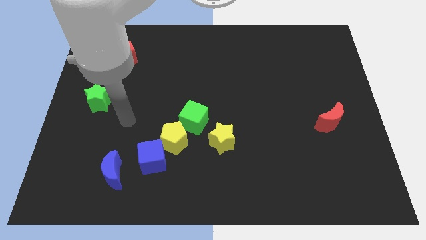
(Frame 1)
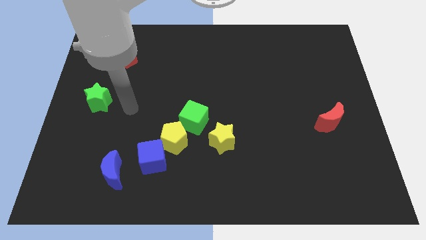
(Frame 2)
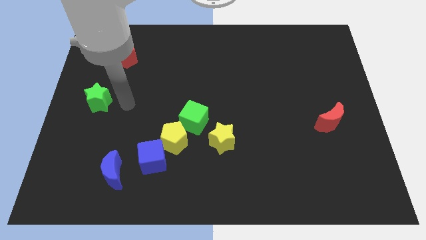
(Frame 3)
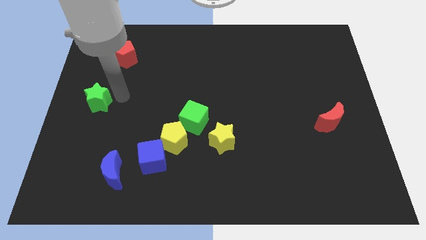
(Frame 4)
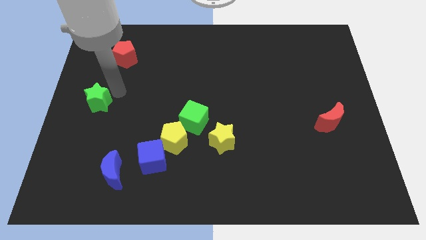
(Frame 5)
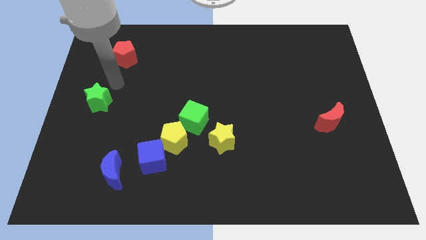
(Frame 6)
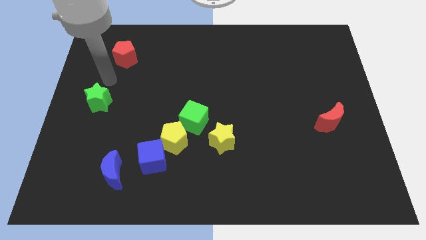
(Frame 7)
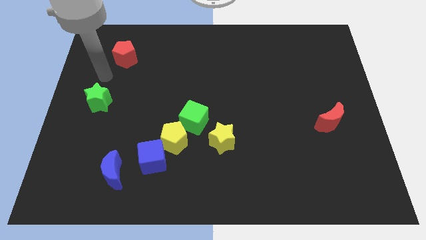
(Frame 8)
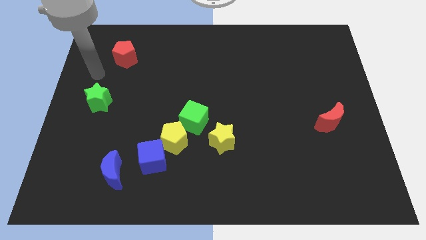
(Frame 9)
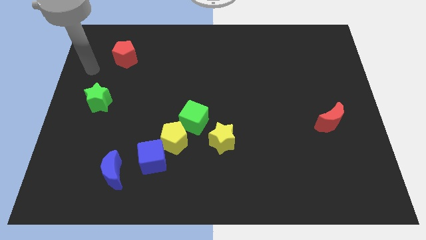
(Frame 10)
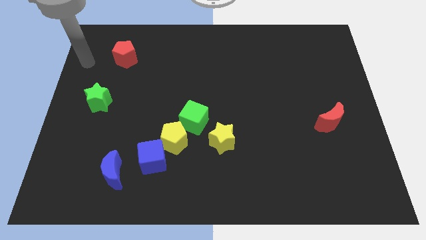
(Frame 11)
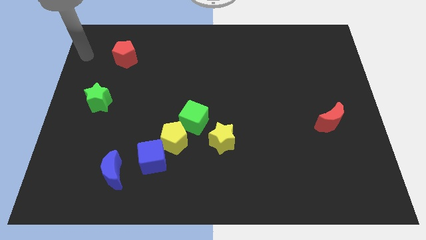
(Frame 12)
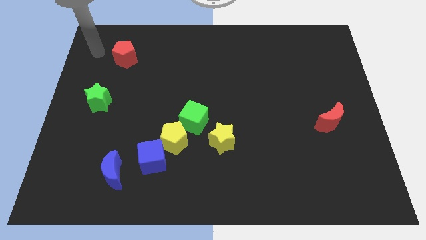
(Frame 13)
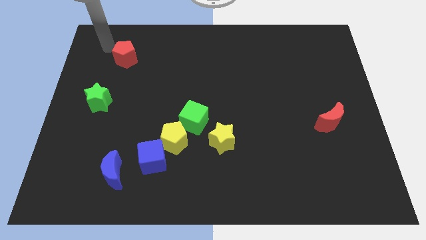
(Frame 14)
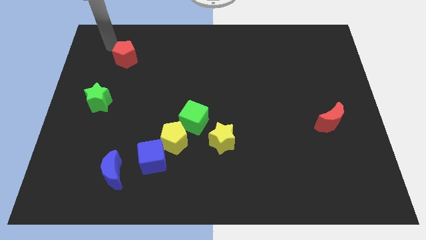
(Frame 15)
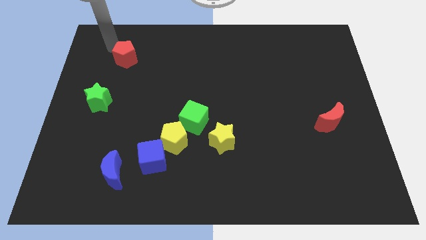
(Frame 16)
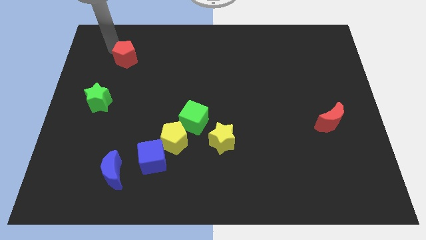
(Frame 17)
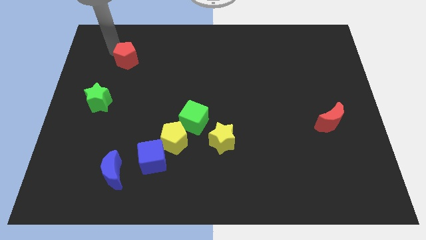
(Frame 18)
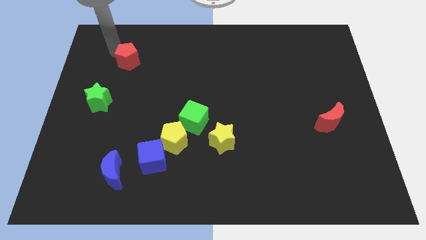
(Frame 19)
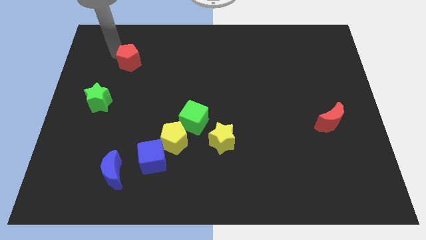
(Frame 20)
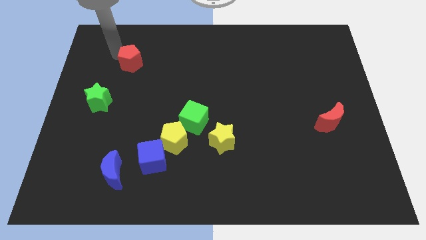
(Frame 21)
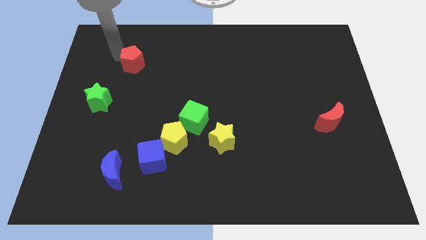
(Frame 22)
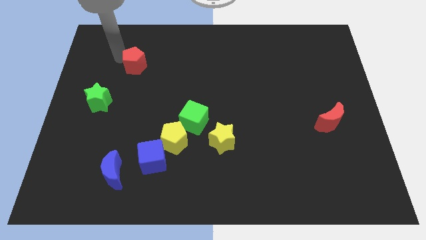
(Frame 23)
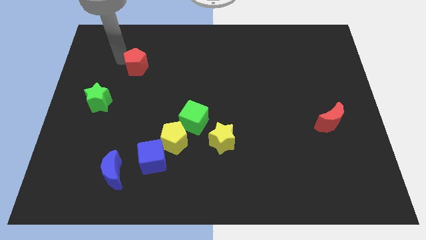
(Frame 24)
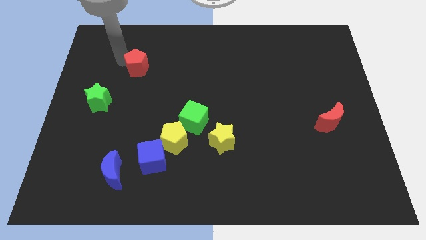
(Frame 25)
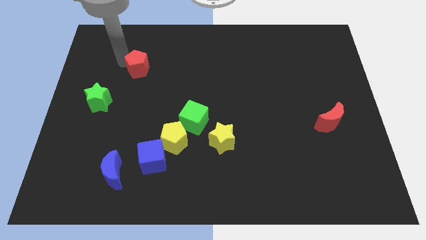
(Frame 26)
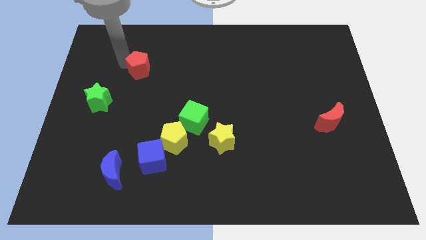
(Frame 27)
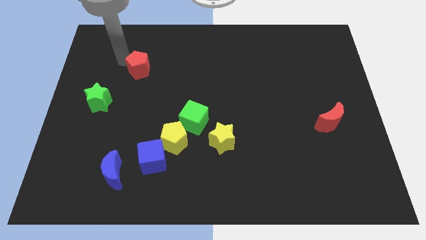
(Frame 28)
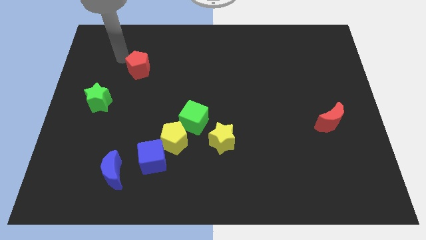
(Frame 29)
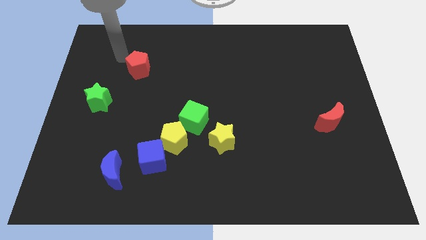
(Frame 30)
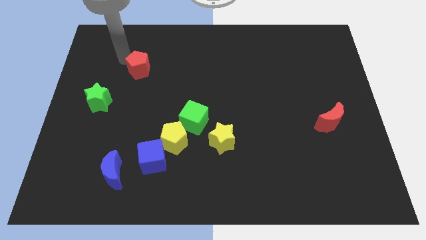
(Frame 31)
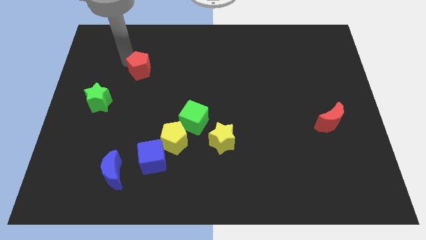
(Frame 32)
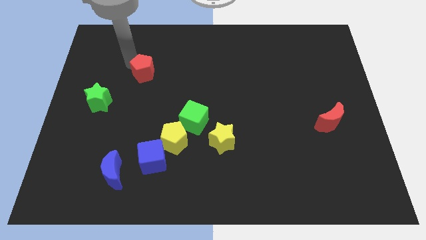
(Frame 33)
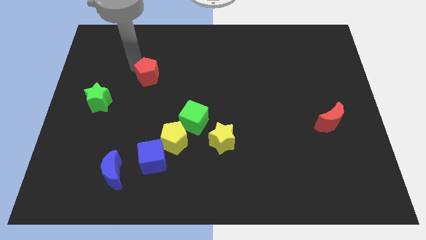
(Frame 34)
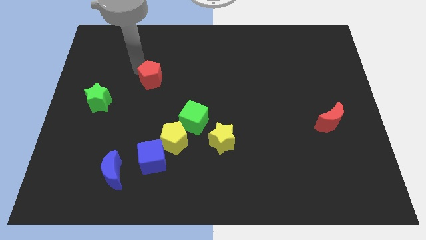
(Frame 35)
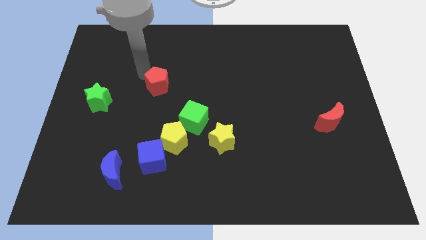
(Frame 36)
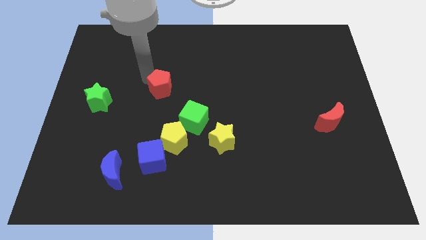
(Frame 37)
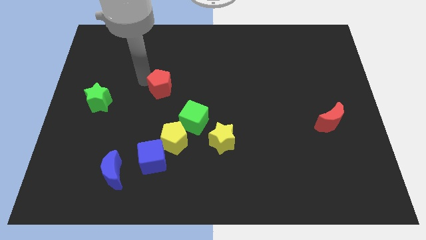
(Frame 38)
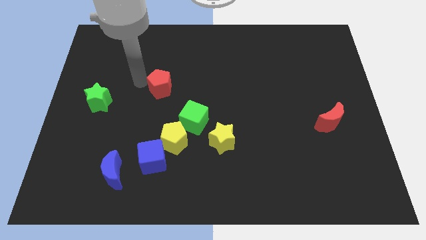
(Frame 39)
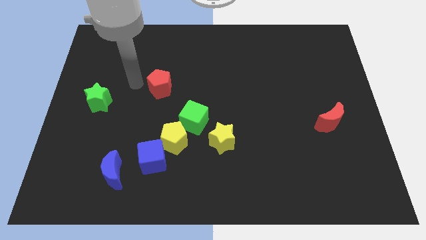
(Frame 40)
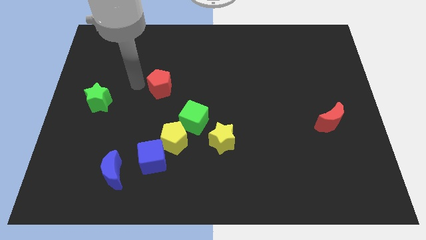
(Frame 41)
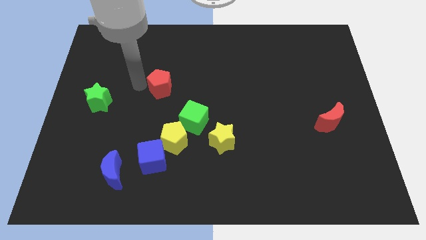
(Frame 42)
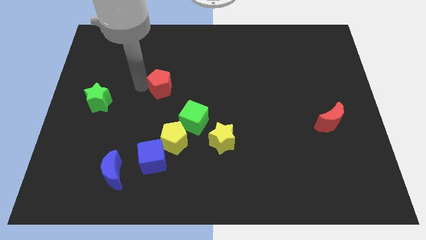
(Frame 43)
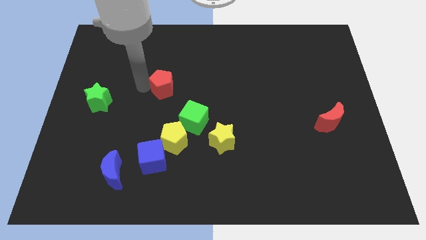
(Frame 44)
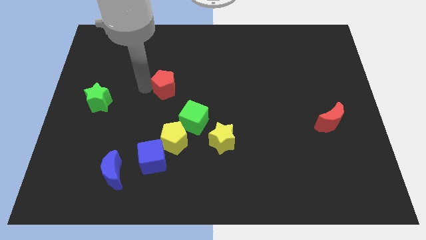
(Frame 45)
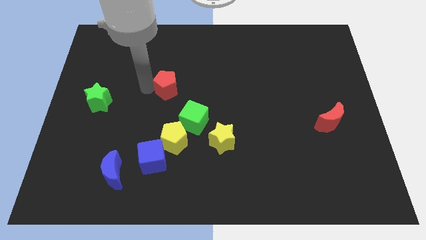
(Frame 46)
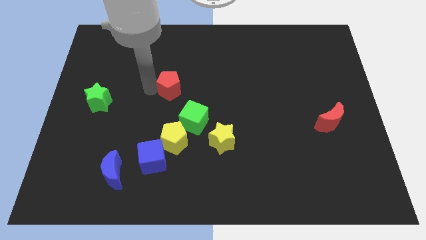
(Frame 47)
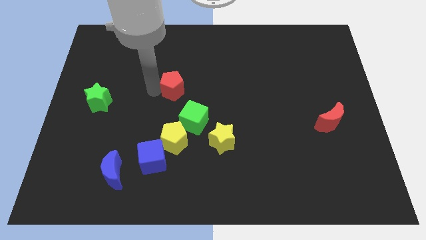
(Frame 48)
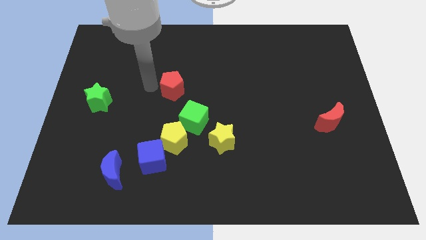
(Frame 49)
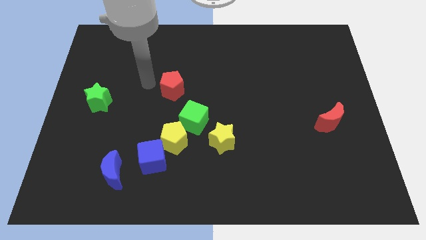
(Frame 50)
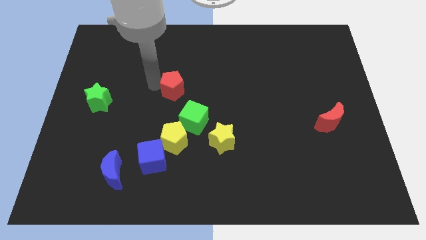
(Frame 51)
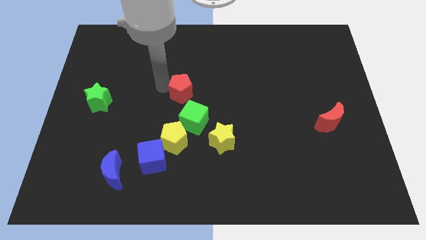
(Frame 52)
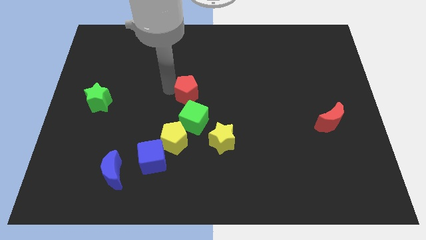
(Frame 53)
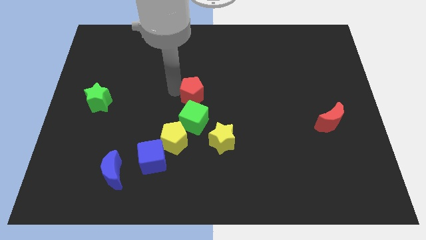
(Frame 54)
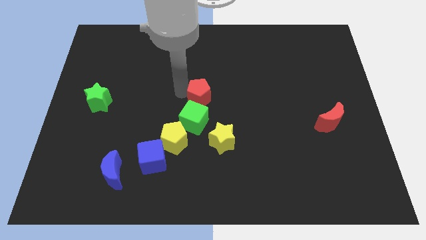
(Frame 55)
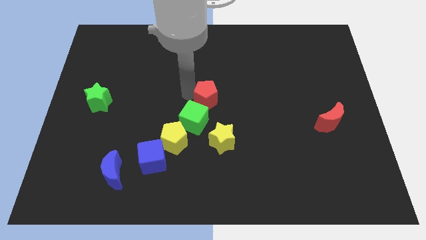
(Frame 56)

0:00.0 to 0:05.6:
put the red pentagon to the top of the yellow star

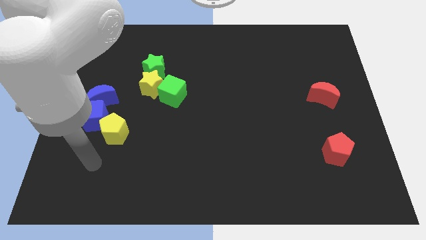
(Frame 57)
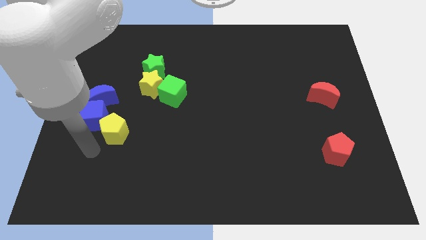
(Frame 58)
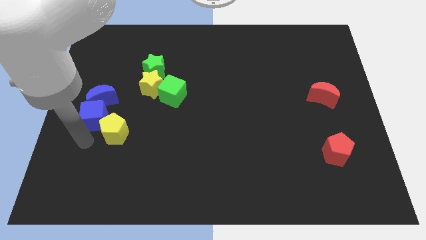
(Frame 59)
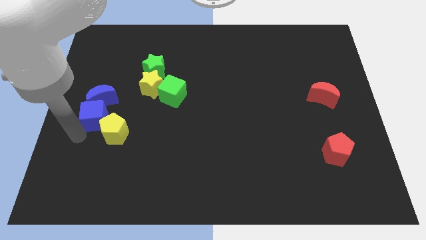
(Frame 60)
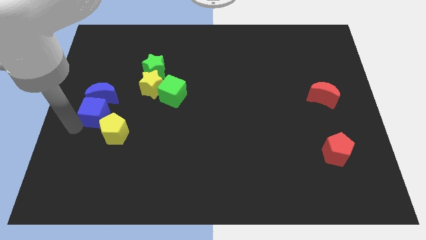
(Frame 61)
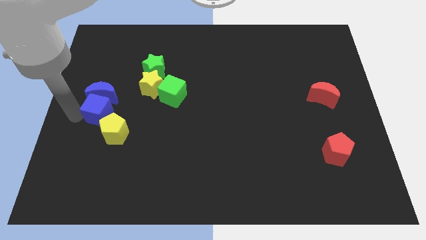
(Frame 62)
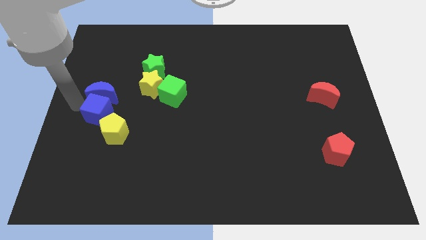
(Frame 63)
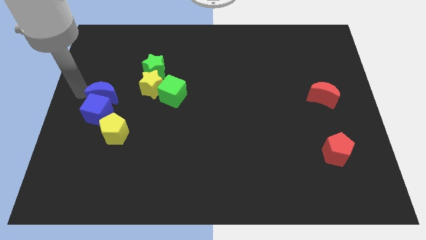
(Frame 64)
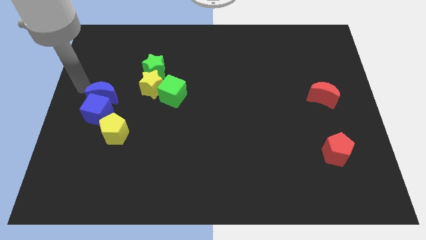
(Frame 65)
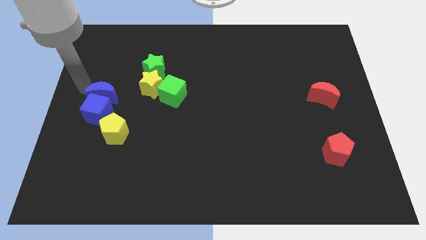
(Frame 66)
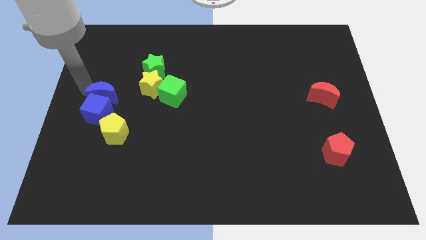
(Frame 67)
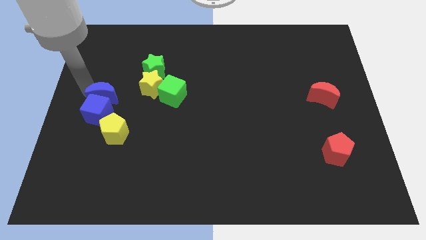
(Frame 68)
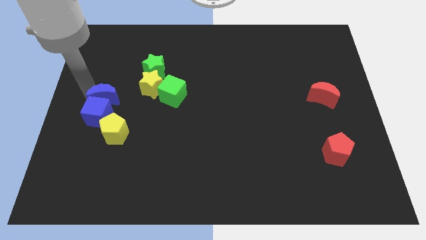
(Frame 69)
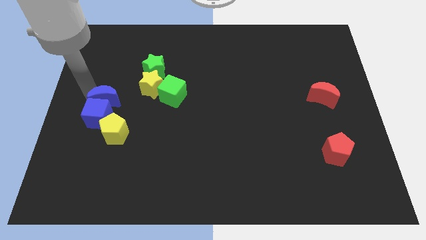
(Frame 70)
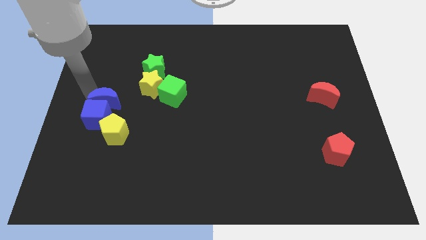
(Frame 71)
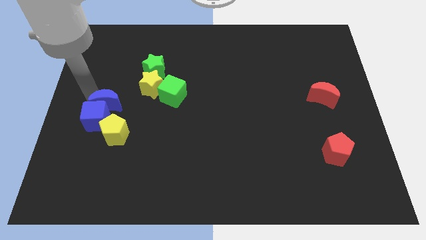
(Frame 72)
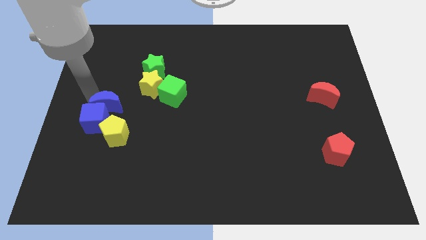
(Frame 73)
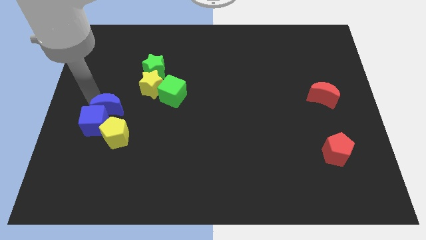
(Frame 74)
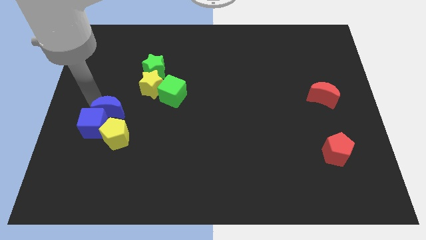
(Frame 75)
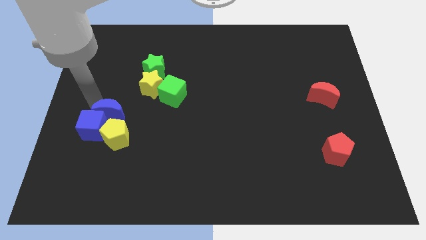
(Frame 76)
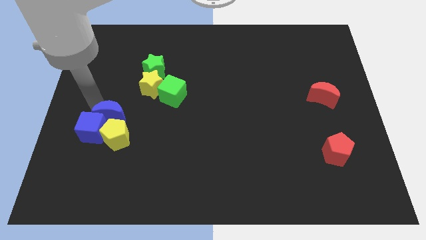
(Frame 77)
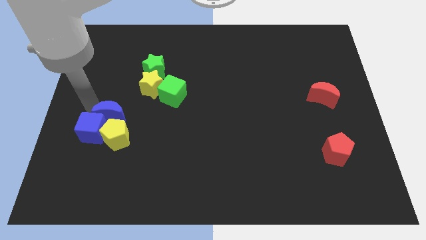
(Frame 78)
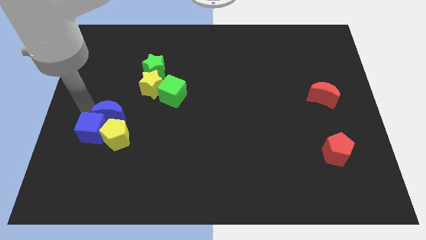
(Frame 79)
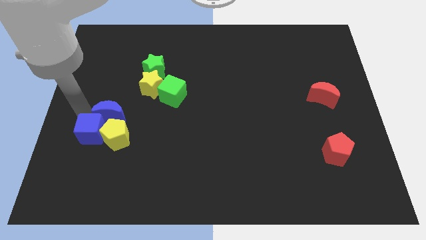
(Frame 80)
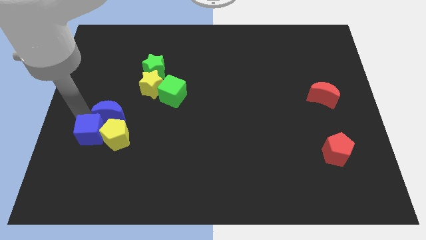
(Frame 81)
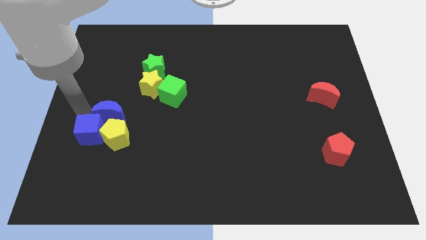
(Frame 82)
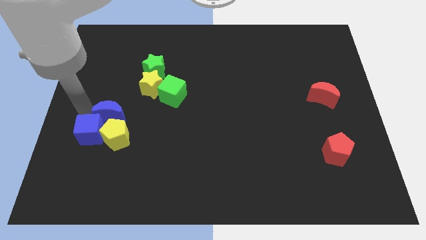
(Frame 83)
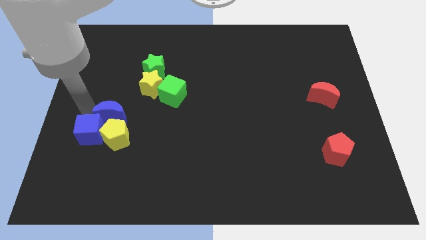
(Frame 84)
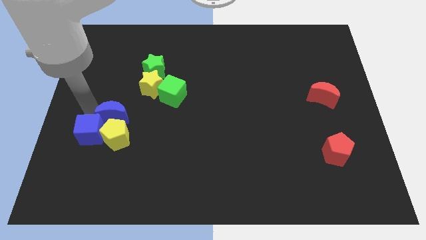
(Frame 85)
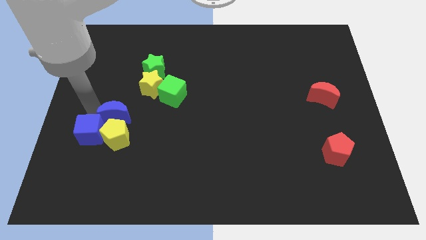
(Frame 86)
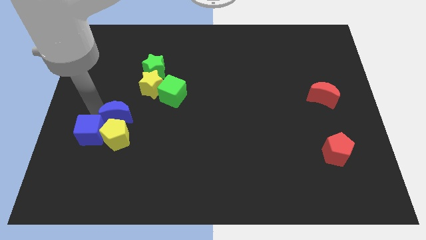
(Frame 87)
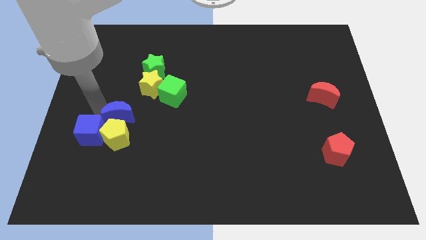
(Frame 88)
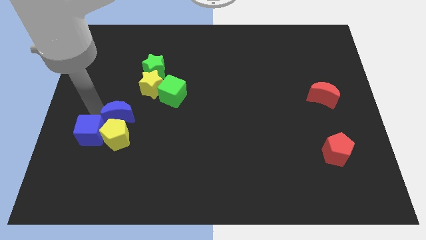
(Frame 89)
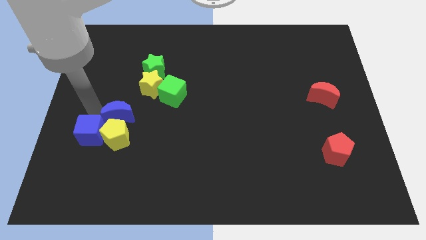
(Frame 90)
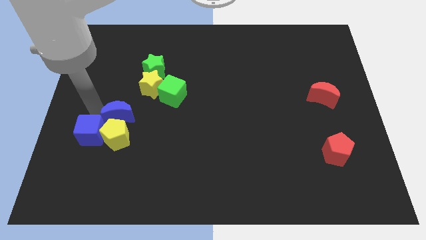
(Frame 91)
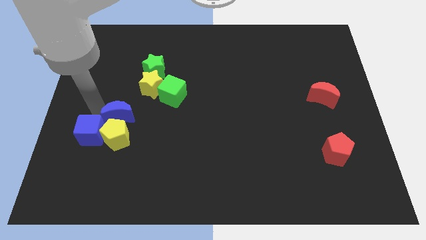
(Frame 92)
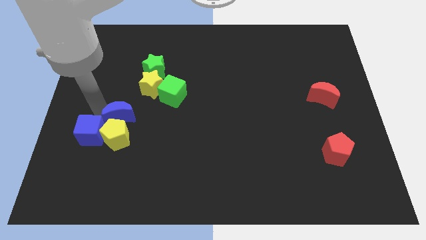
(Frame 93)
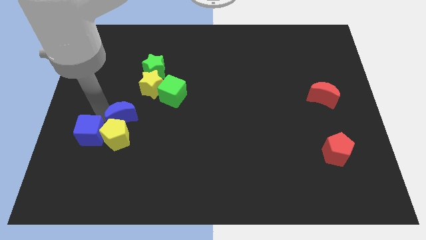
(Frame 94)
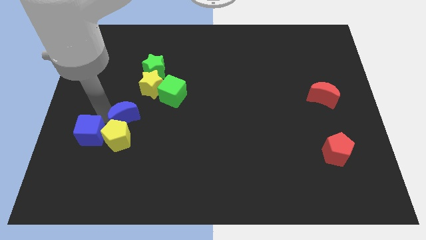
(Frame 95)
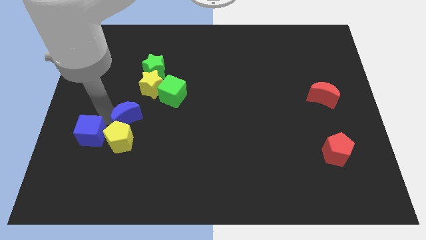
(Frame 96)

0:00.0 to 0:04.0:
slide the blue moon to the bottom of the yellow star
